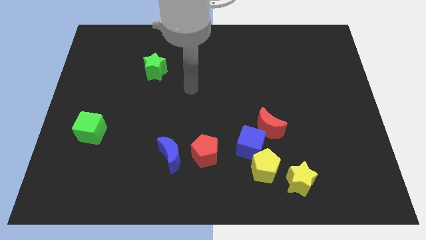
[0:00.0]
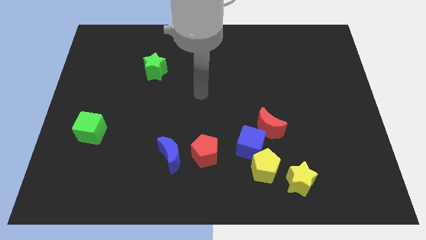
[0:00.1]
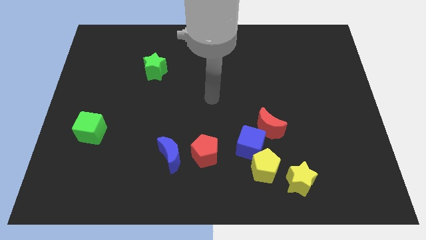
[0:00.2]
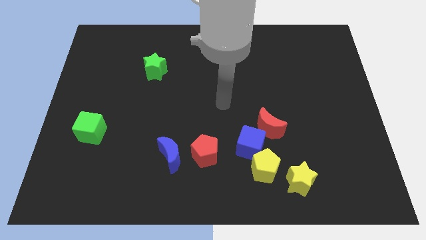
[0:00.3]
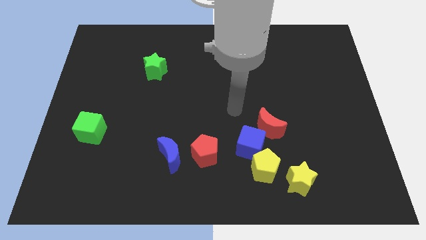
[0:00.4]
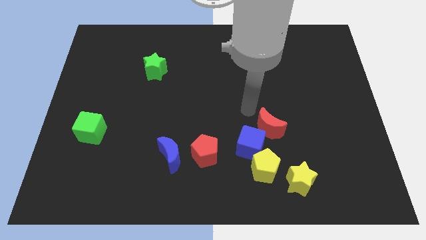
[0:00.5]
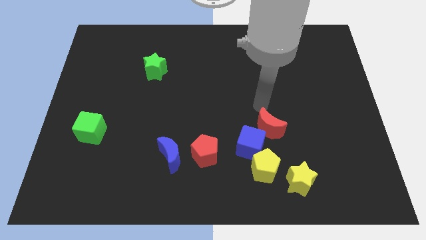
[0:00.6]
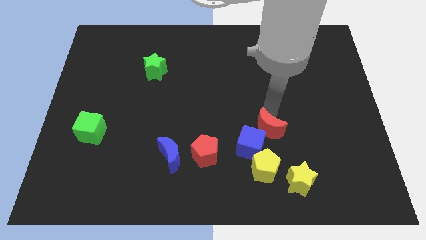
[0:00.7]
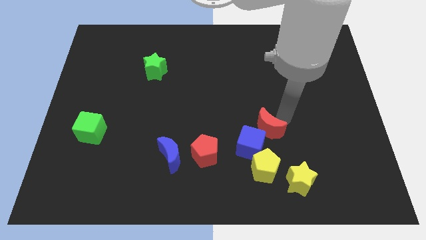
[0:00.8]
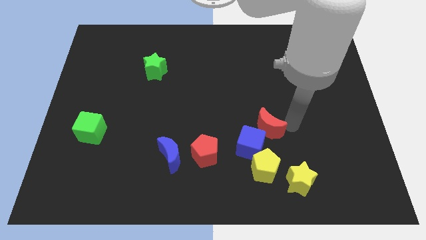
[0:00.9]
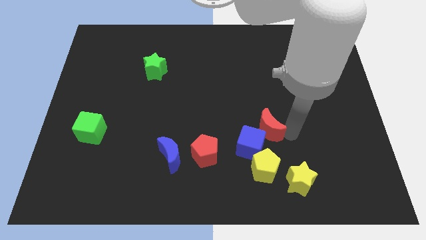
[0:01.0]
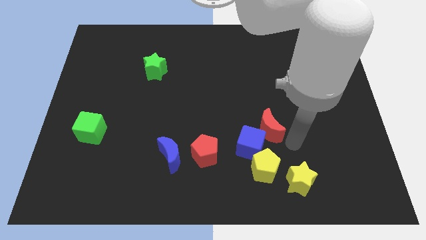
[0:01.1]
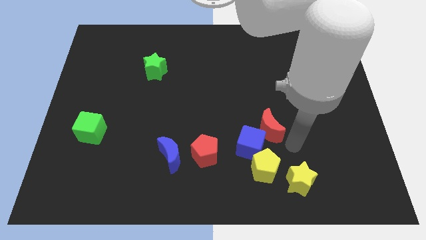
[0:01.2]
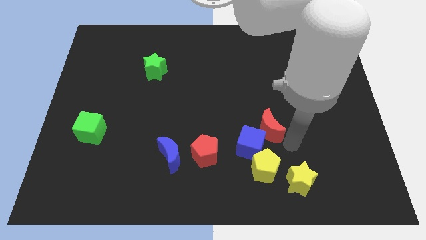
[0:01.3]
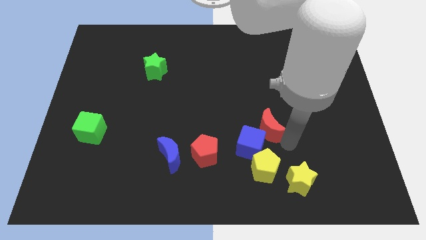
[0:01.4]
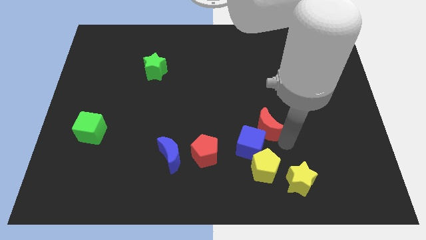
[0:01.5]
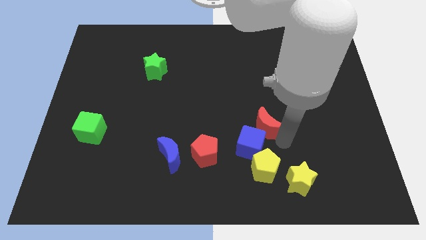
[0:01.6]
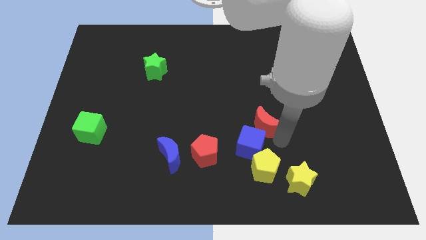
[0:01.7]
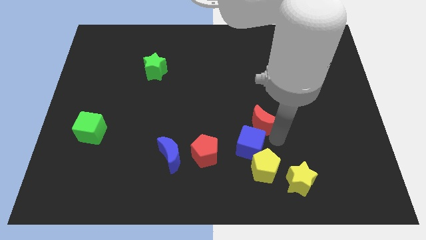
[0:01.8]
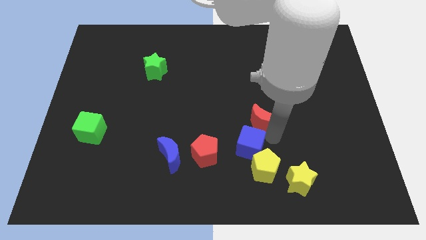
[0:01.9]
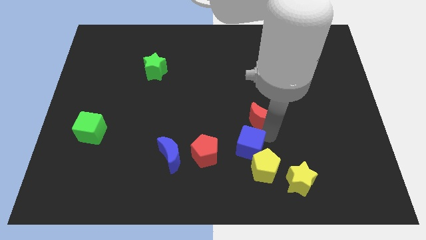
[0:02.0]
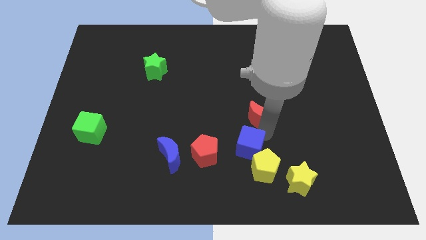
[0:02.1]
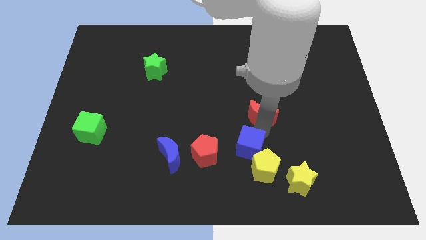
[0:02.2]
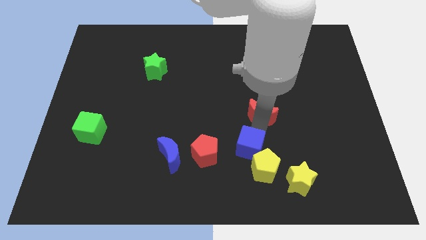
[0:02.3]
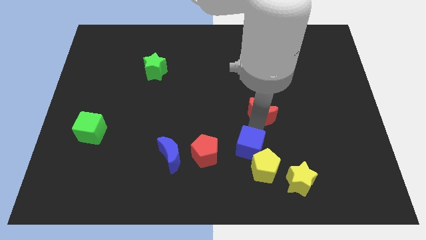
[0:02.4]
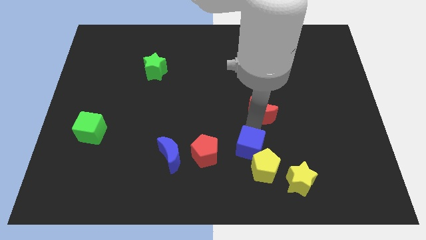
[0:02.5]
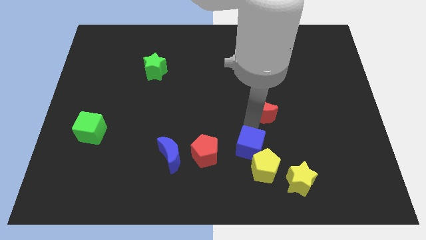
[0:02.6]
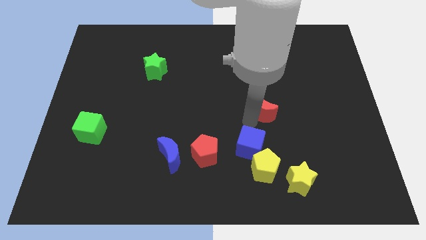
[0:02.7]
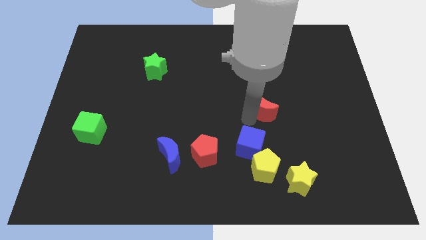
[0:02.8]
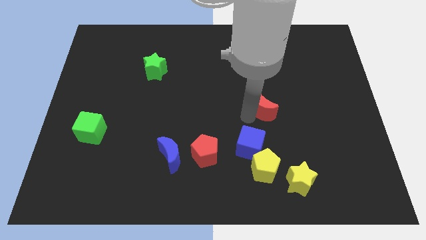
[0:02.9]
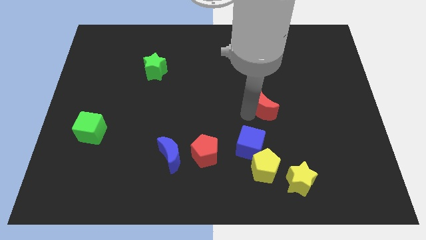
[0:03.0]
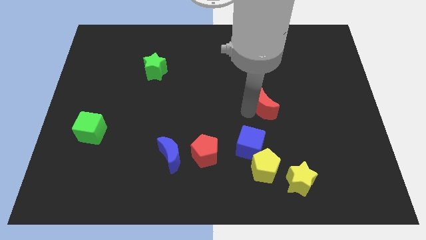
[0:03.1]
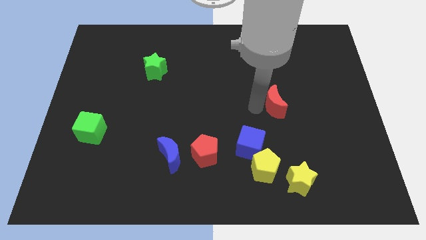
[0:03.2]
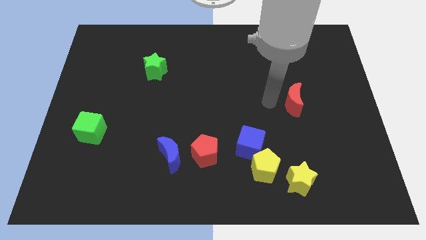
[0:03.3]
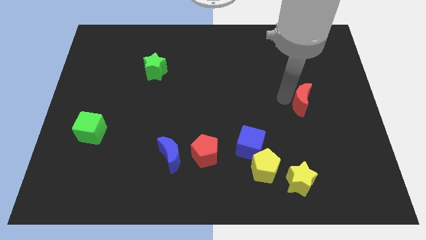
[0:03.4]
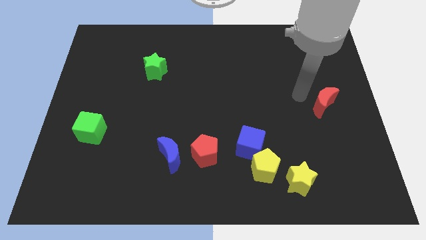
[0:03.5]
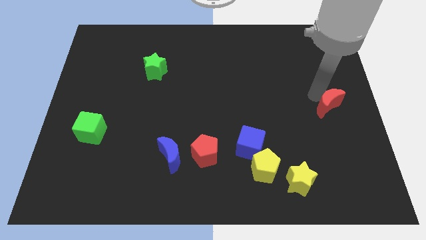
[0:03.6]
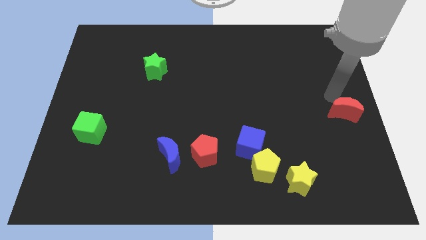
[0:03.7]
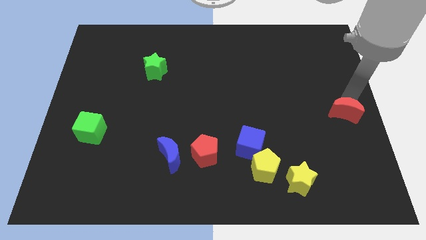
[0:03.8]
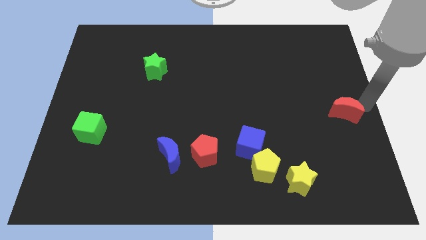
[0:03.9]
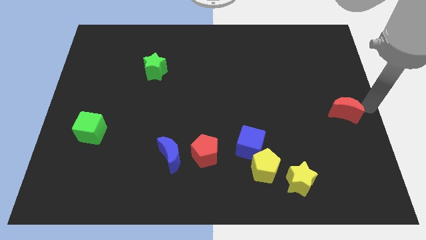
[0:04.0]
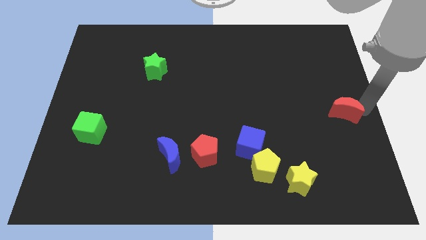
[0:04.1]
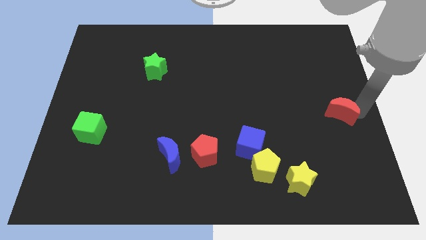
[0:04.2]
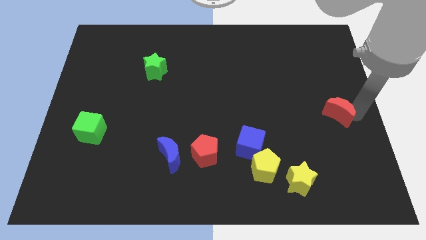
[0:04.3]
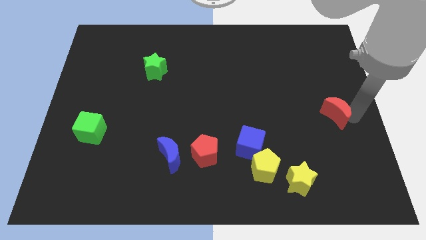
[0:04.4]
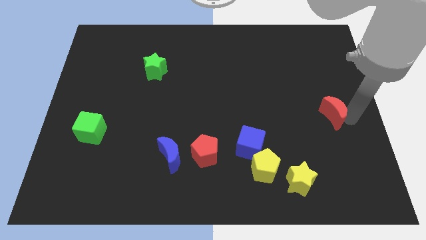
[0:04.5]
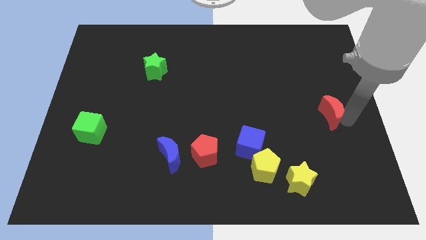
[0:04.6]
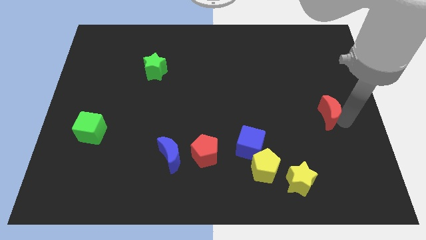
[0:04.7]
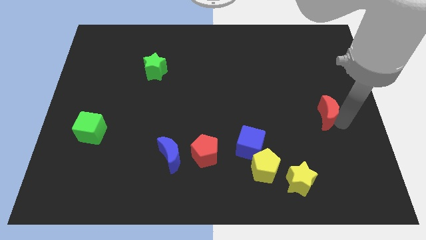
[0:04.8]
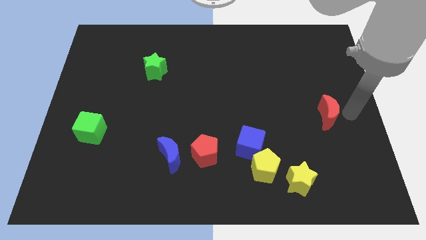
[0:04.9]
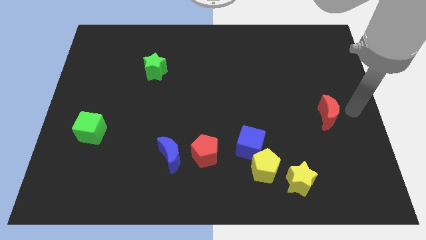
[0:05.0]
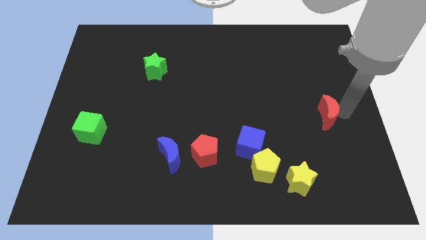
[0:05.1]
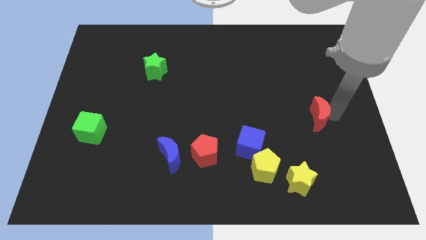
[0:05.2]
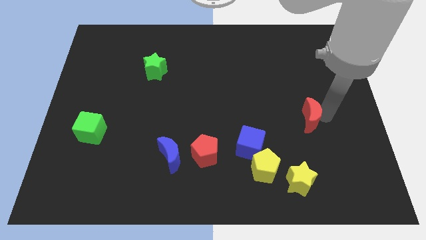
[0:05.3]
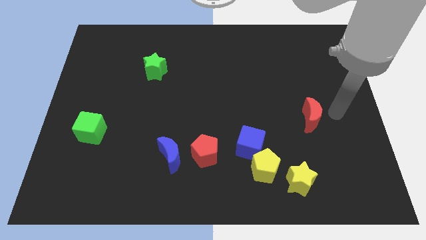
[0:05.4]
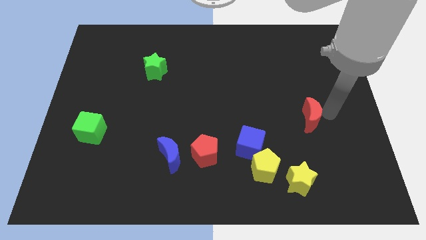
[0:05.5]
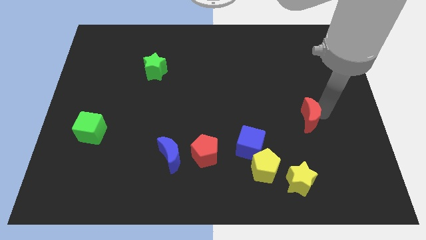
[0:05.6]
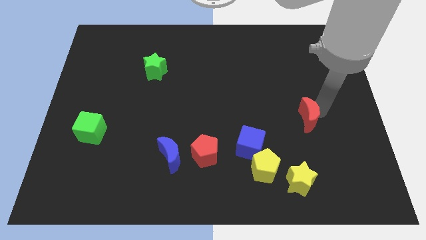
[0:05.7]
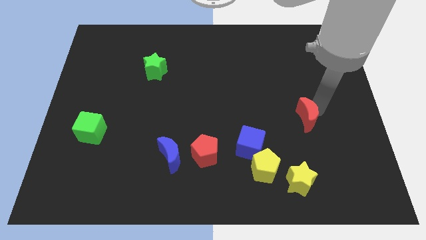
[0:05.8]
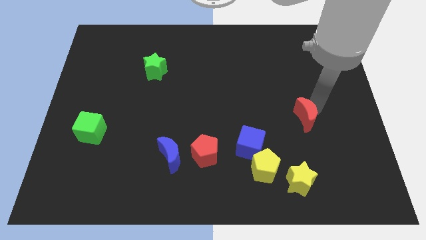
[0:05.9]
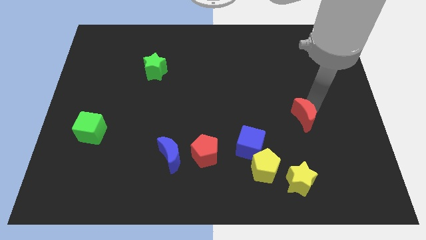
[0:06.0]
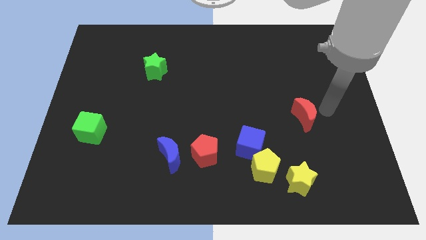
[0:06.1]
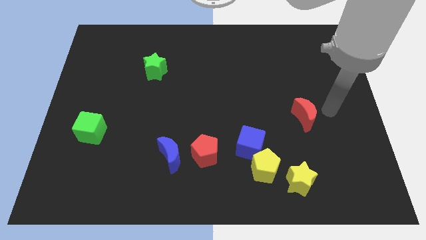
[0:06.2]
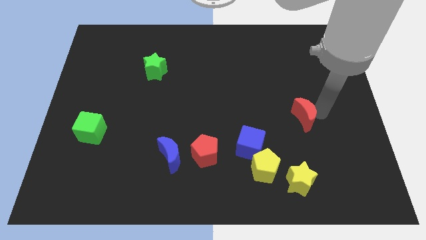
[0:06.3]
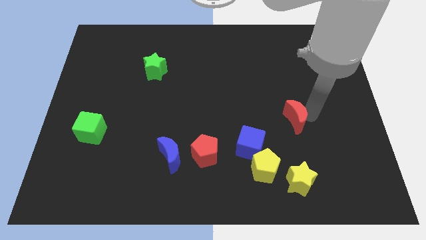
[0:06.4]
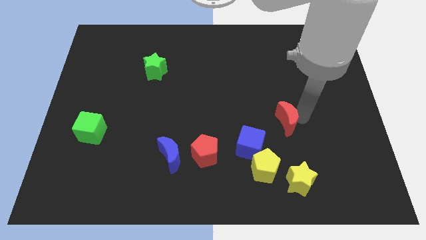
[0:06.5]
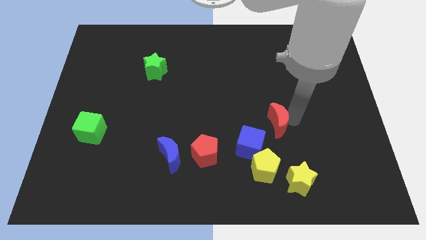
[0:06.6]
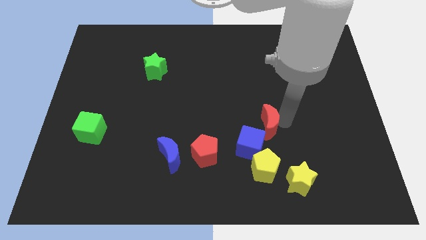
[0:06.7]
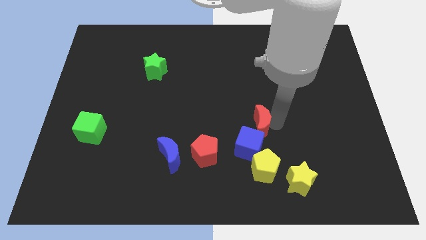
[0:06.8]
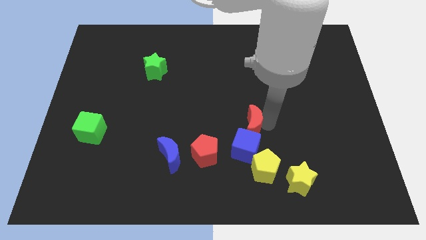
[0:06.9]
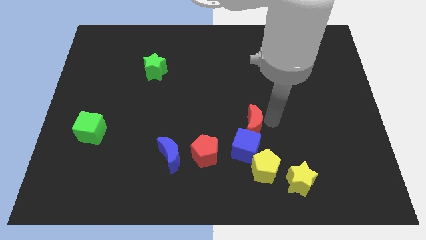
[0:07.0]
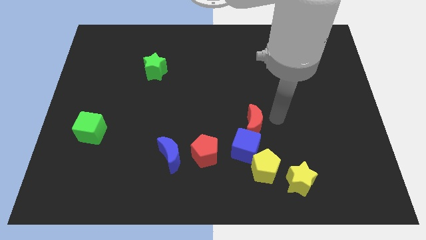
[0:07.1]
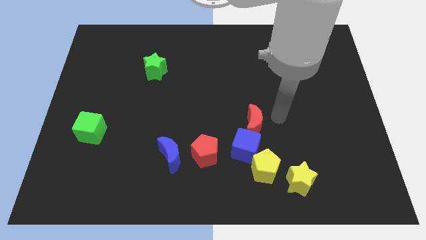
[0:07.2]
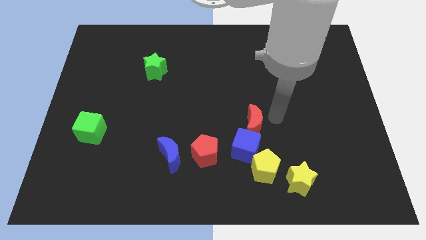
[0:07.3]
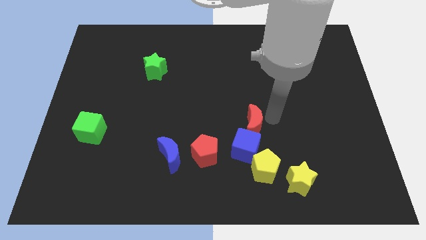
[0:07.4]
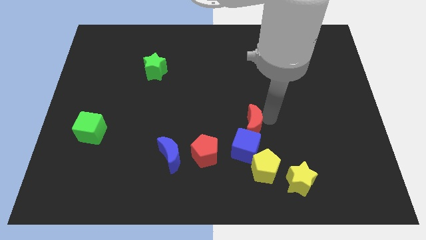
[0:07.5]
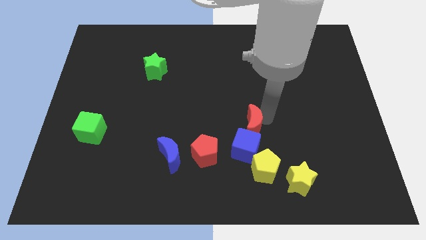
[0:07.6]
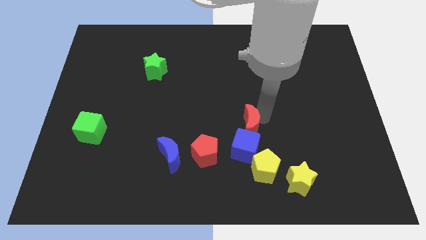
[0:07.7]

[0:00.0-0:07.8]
push the red moon diagonally up and to the right of the red pentagon
